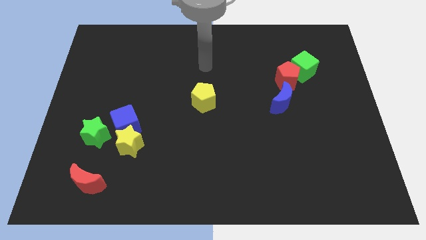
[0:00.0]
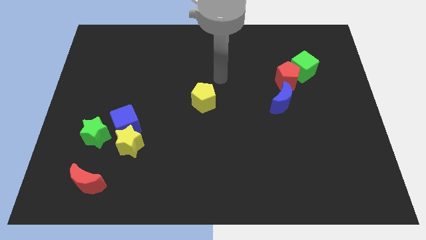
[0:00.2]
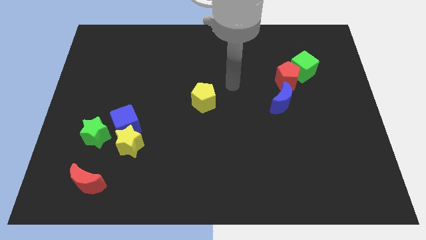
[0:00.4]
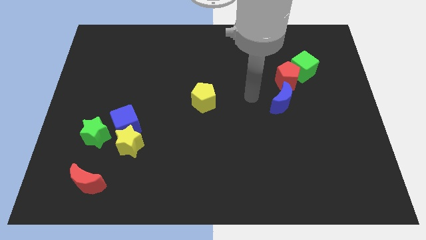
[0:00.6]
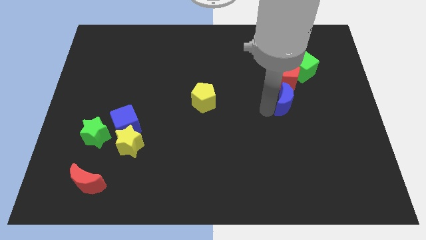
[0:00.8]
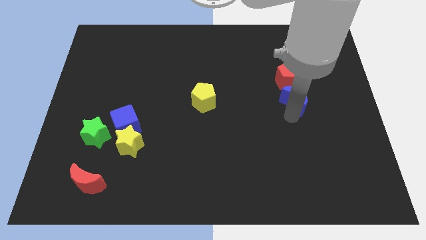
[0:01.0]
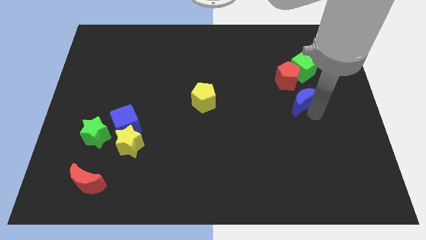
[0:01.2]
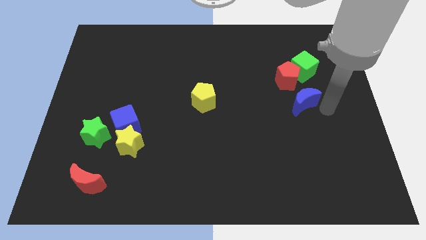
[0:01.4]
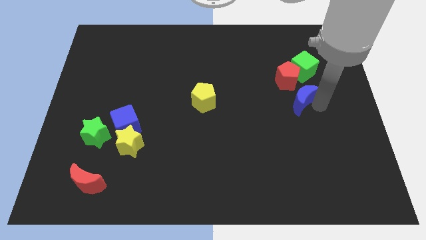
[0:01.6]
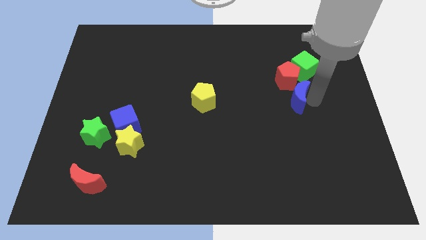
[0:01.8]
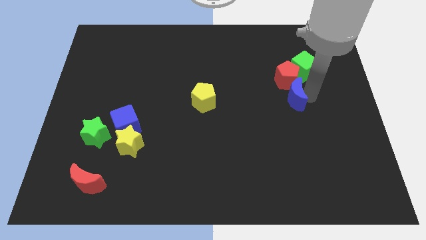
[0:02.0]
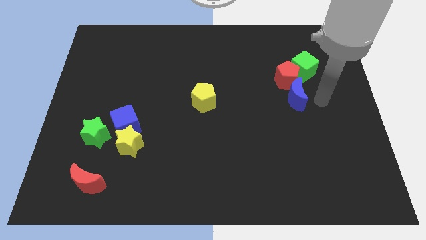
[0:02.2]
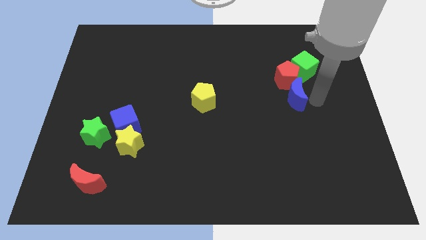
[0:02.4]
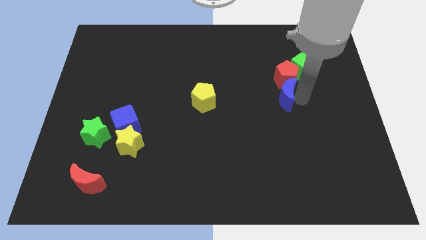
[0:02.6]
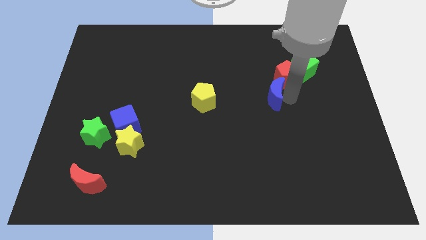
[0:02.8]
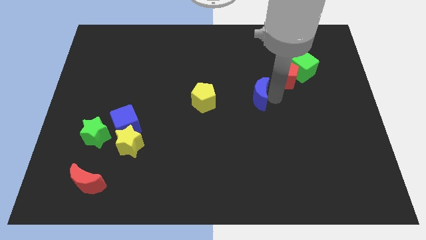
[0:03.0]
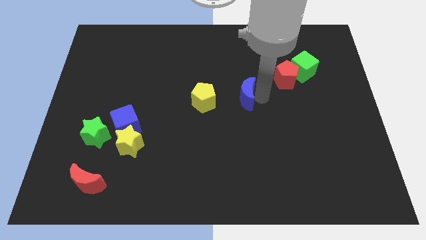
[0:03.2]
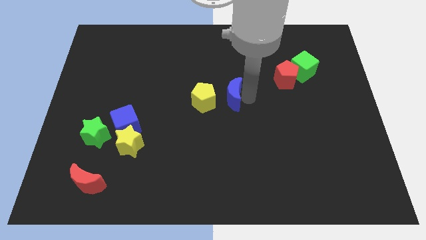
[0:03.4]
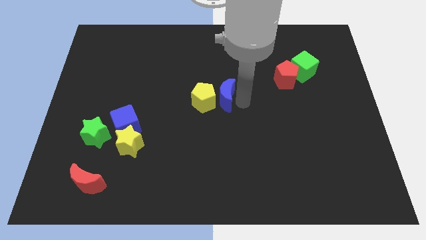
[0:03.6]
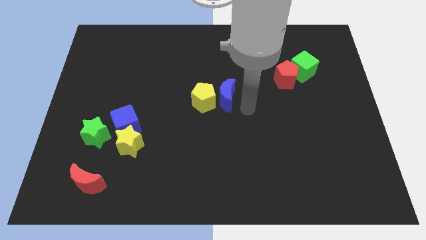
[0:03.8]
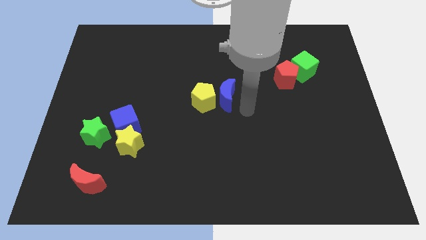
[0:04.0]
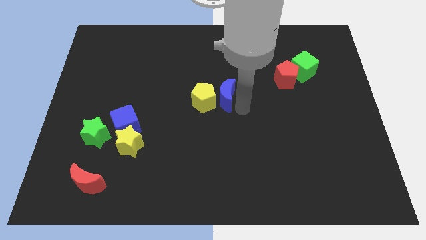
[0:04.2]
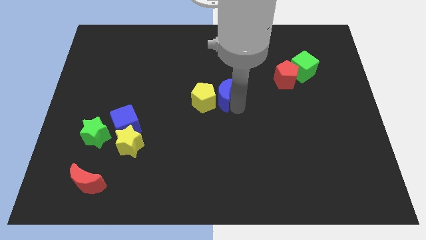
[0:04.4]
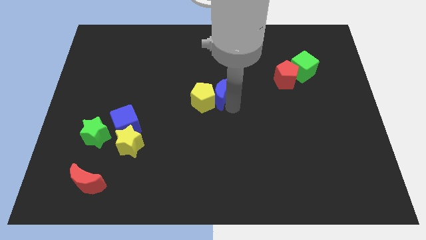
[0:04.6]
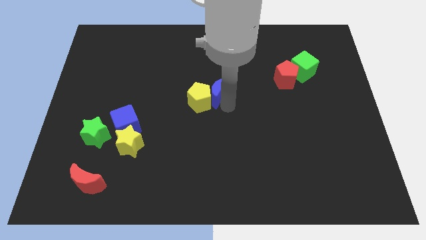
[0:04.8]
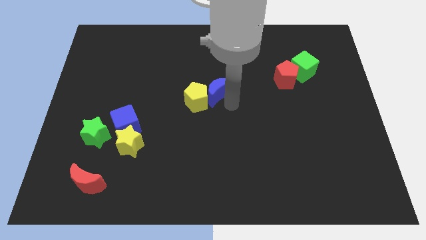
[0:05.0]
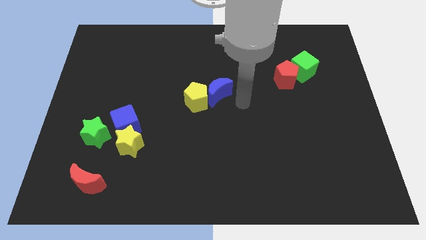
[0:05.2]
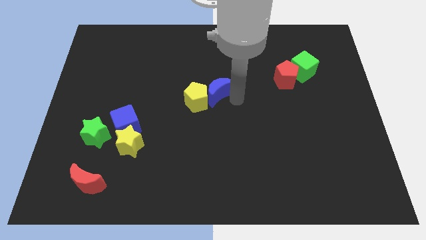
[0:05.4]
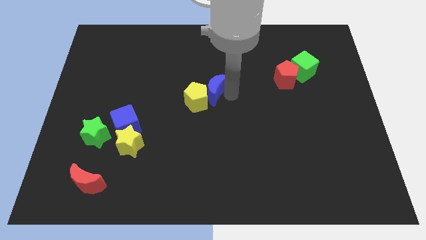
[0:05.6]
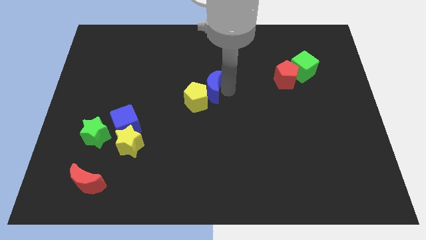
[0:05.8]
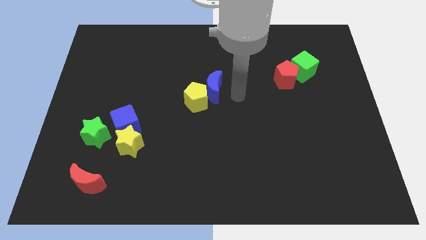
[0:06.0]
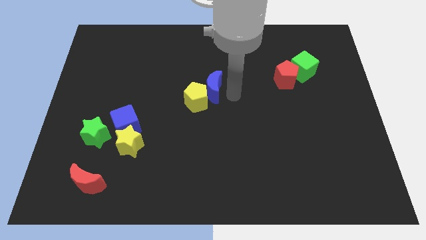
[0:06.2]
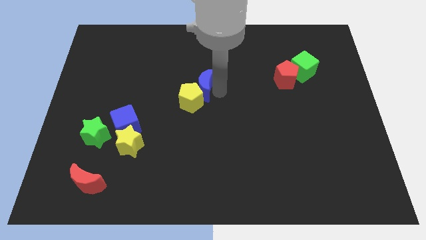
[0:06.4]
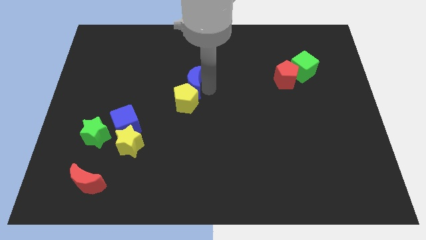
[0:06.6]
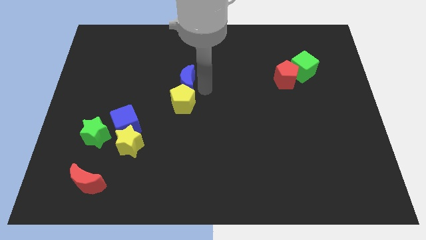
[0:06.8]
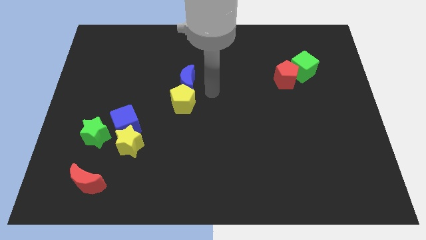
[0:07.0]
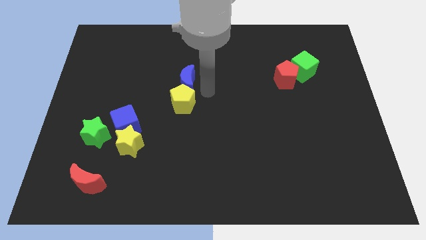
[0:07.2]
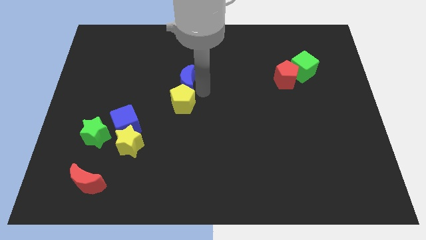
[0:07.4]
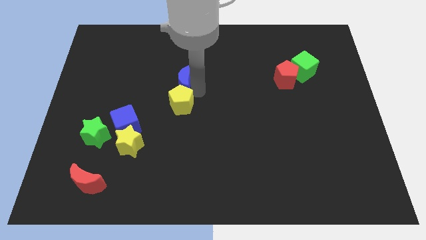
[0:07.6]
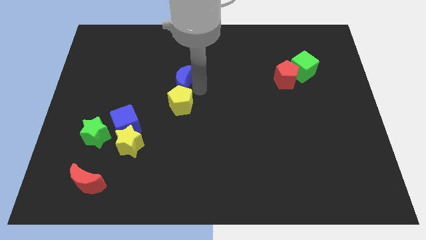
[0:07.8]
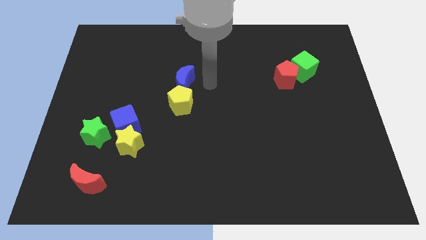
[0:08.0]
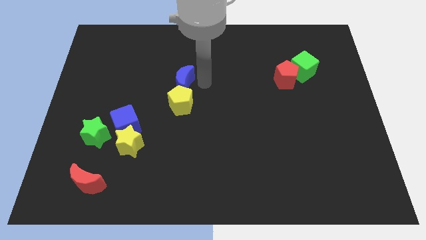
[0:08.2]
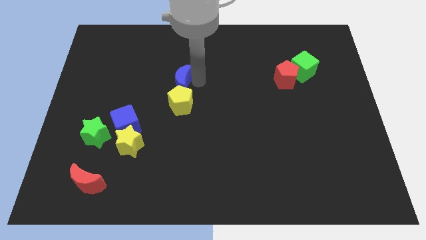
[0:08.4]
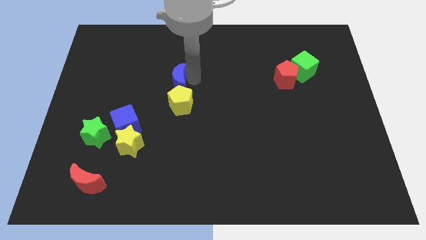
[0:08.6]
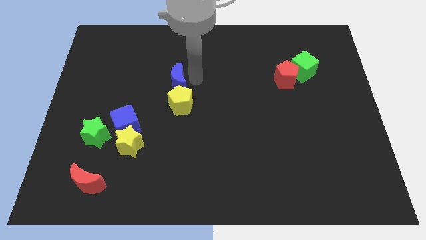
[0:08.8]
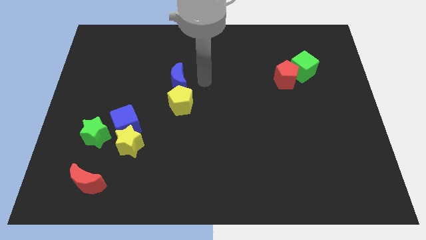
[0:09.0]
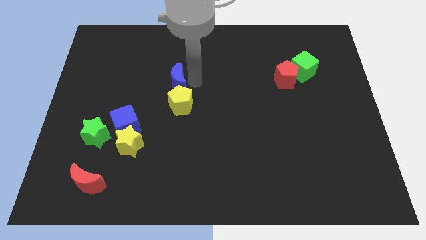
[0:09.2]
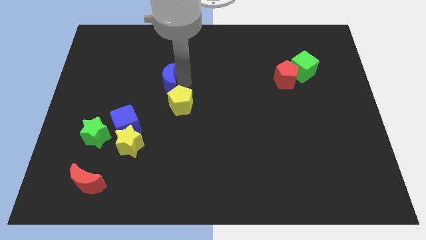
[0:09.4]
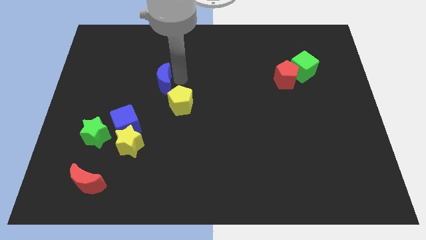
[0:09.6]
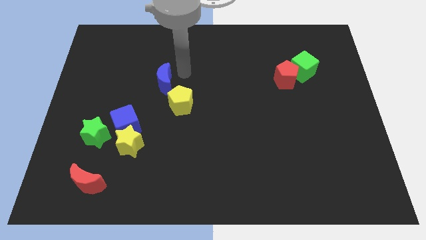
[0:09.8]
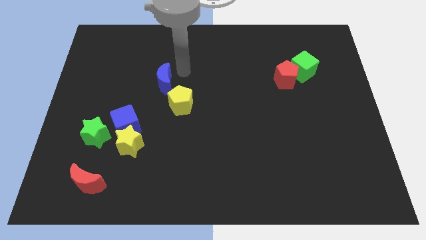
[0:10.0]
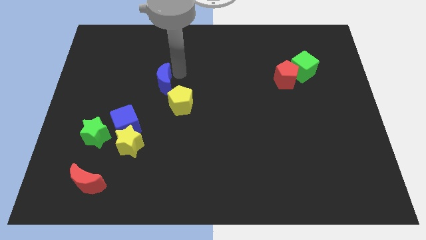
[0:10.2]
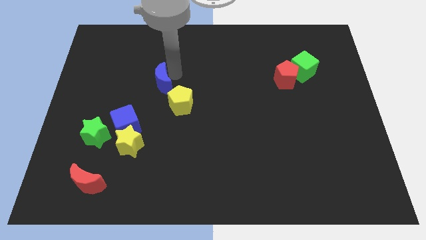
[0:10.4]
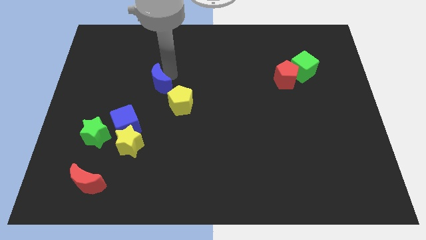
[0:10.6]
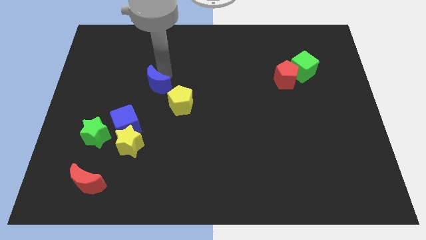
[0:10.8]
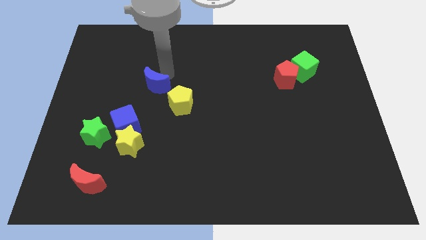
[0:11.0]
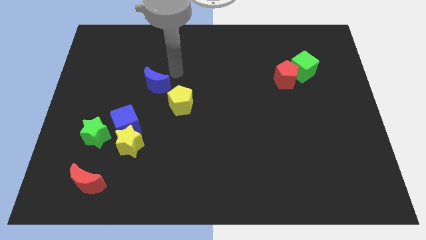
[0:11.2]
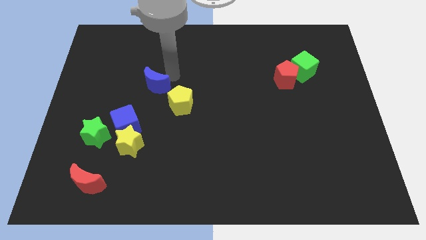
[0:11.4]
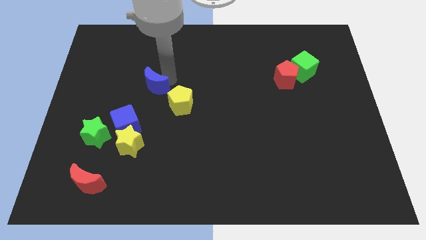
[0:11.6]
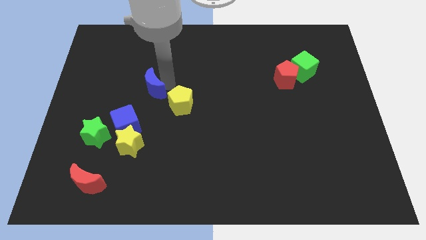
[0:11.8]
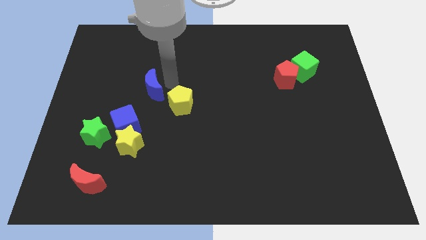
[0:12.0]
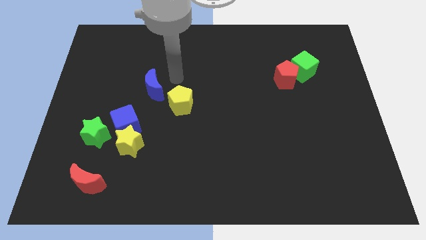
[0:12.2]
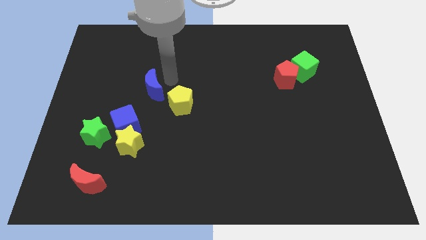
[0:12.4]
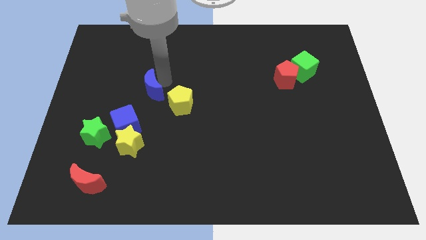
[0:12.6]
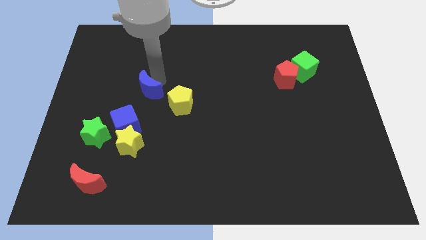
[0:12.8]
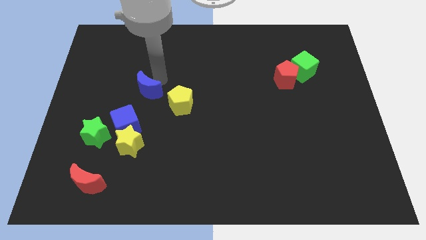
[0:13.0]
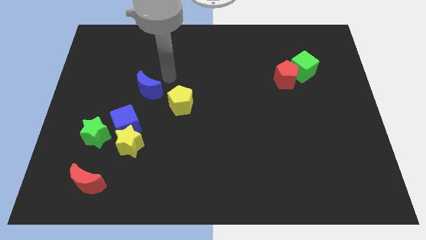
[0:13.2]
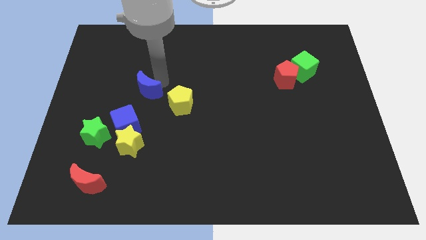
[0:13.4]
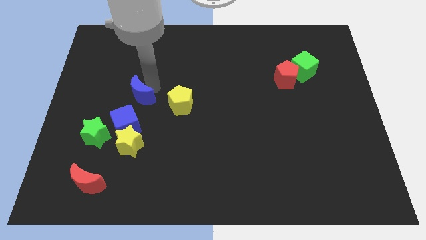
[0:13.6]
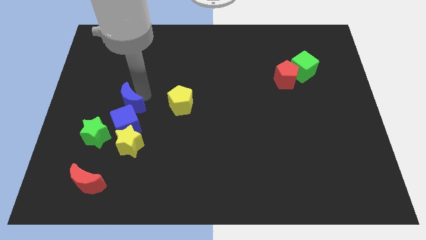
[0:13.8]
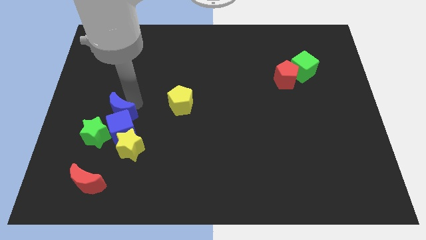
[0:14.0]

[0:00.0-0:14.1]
put the blue moon diagonally up and to the left of the yellow star
